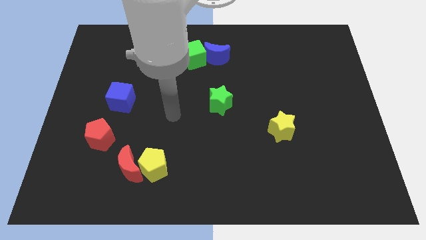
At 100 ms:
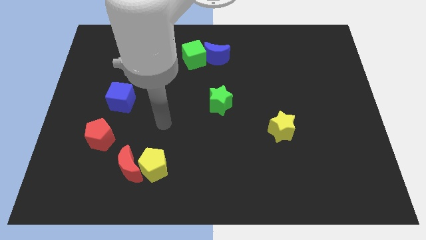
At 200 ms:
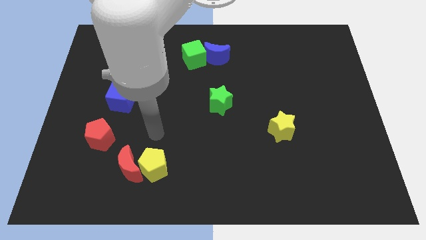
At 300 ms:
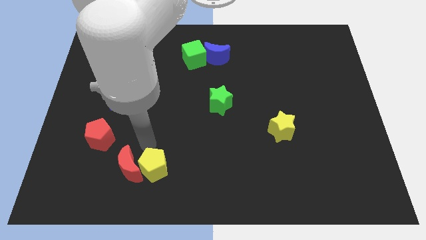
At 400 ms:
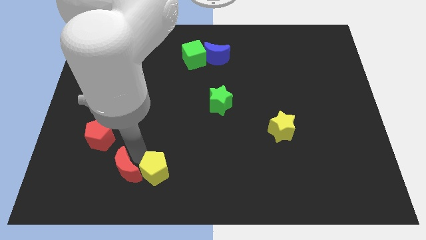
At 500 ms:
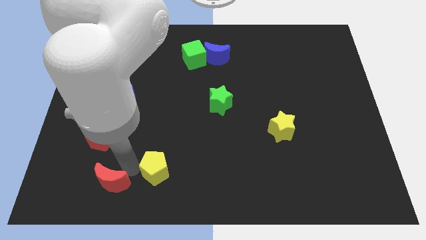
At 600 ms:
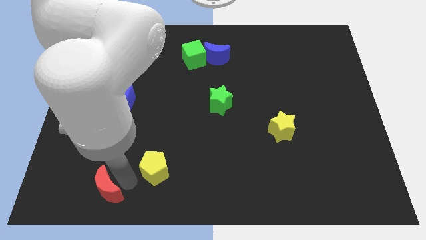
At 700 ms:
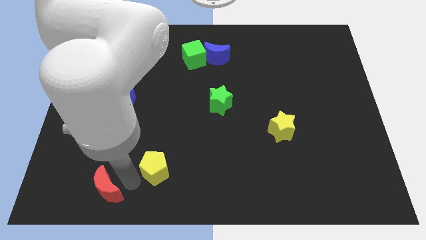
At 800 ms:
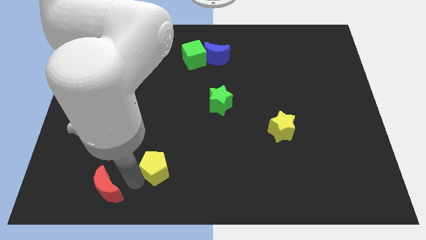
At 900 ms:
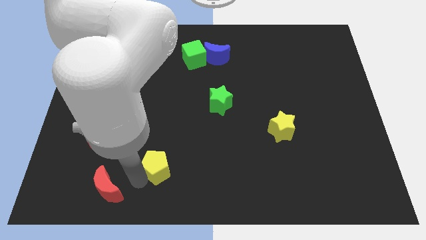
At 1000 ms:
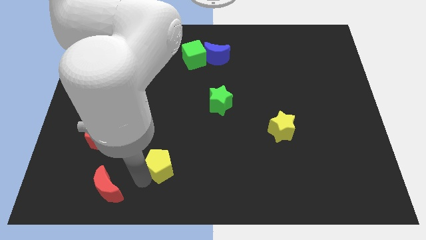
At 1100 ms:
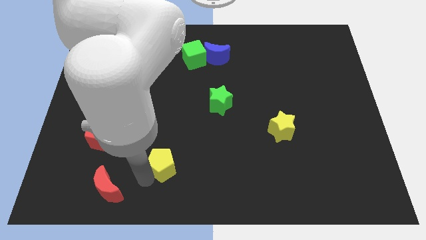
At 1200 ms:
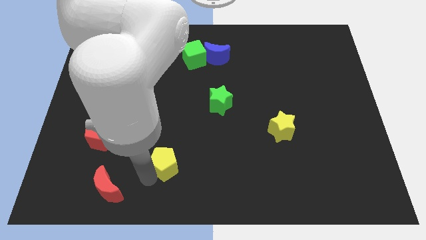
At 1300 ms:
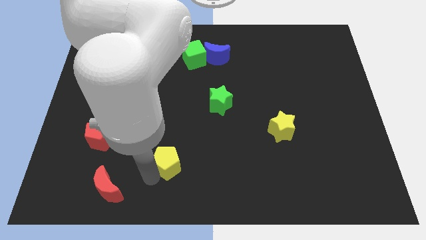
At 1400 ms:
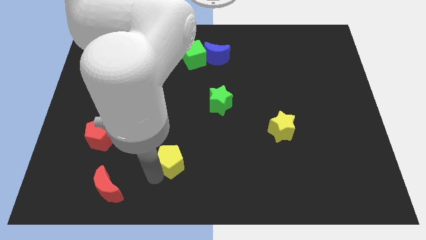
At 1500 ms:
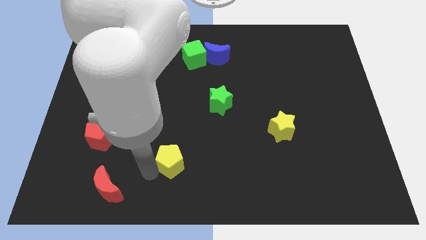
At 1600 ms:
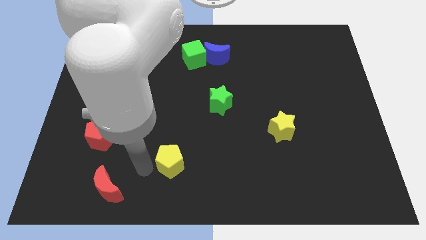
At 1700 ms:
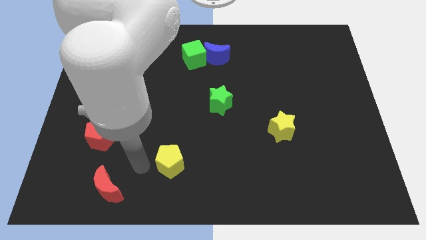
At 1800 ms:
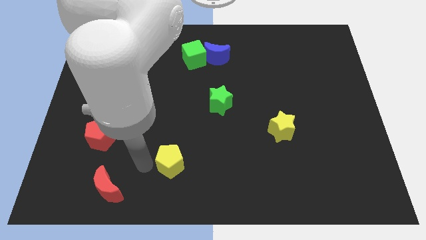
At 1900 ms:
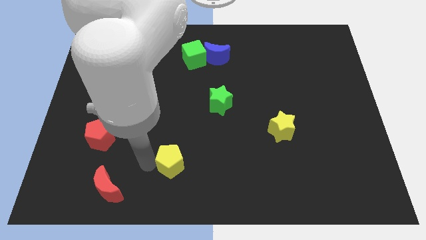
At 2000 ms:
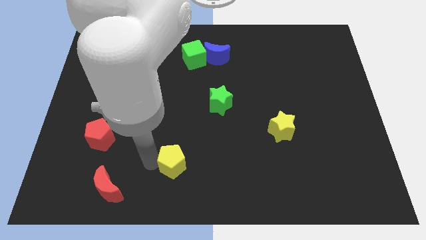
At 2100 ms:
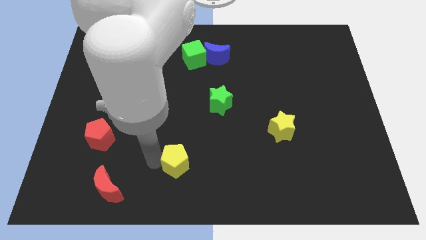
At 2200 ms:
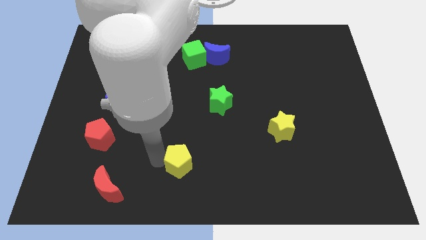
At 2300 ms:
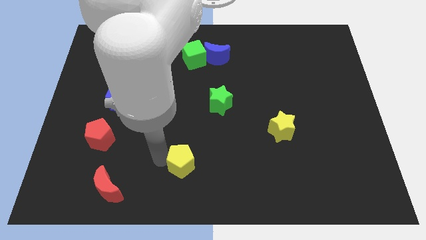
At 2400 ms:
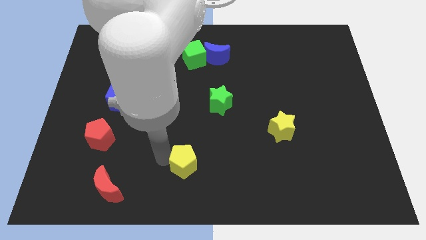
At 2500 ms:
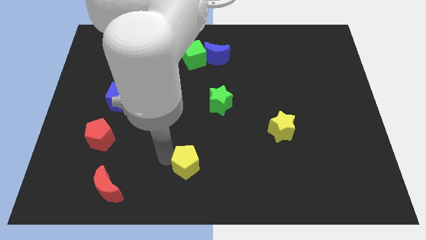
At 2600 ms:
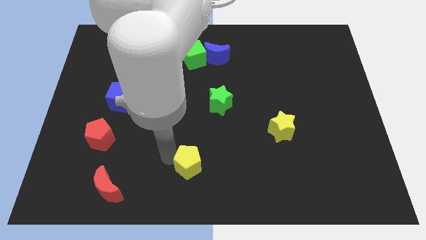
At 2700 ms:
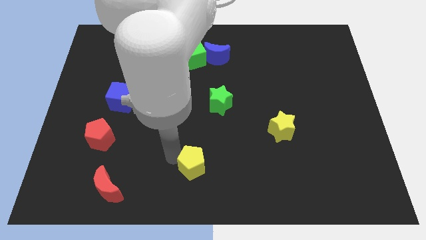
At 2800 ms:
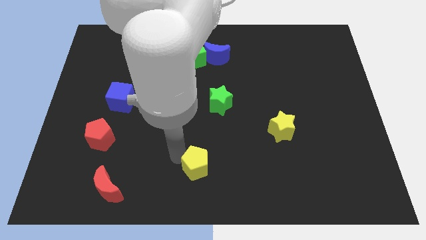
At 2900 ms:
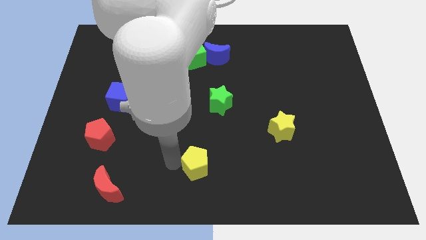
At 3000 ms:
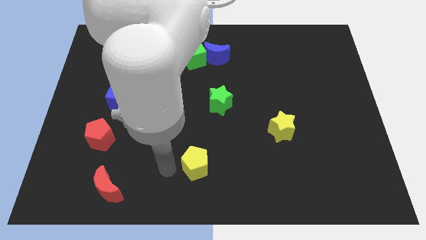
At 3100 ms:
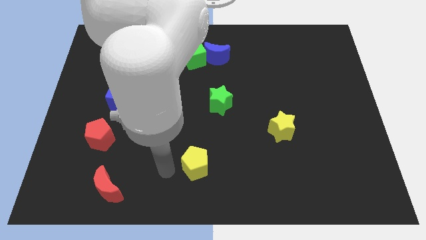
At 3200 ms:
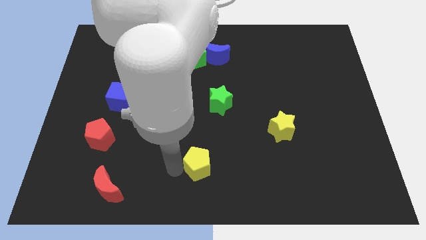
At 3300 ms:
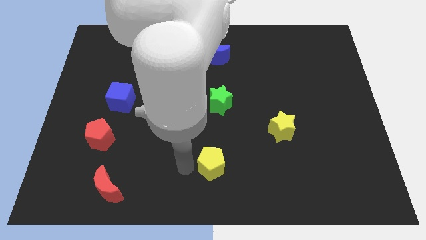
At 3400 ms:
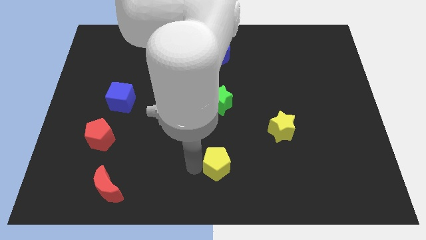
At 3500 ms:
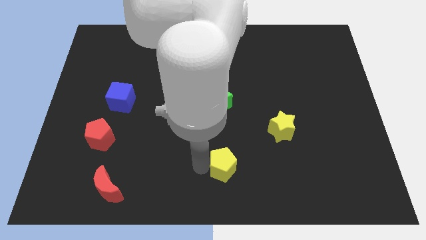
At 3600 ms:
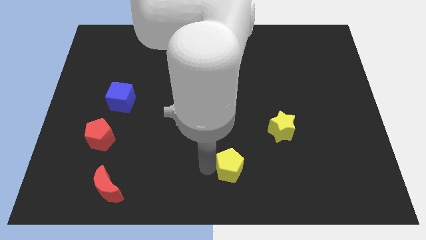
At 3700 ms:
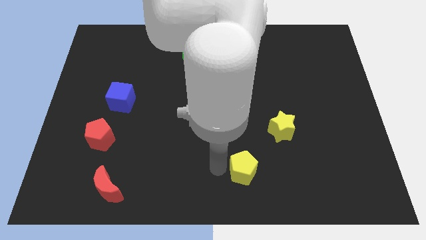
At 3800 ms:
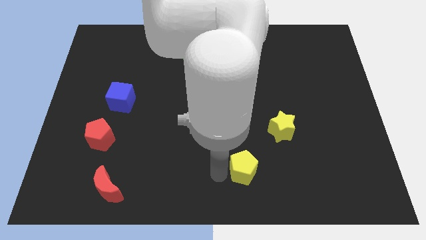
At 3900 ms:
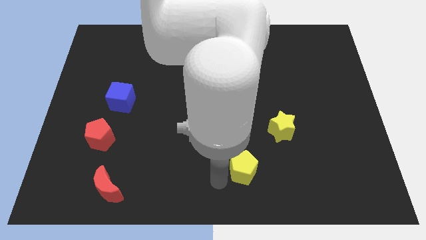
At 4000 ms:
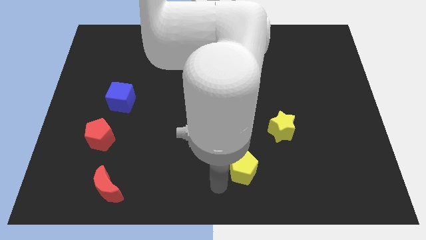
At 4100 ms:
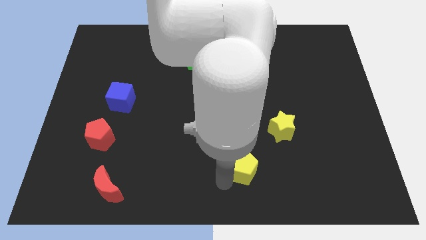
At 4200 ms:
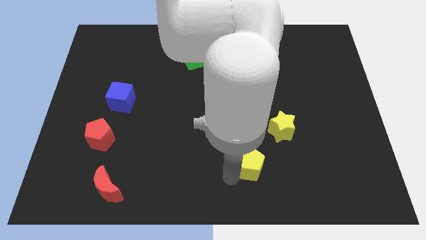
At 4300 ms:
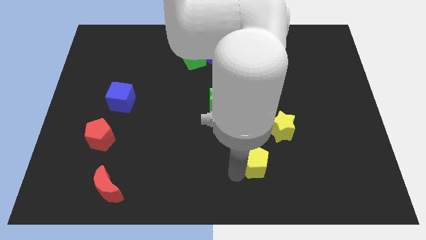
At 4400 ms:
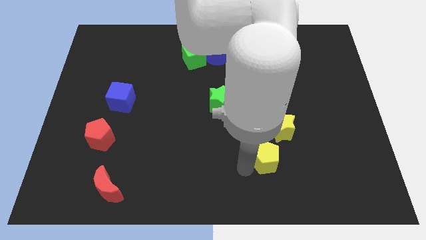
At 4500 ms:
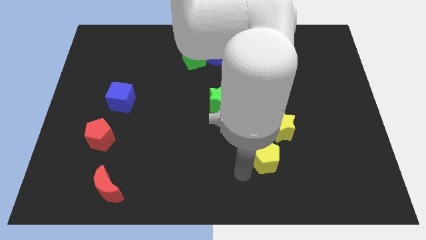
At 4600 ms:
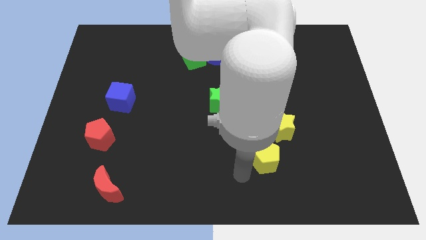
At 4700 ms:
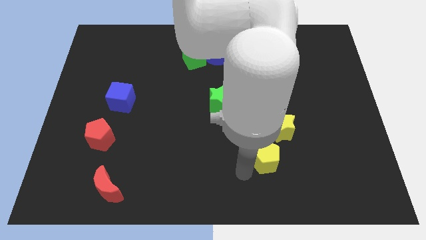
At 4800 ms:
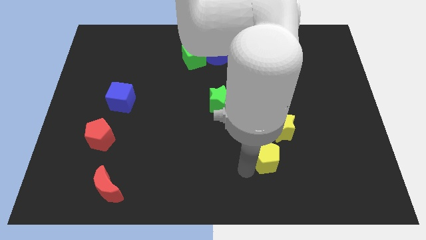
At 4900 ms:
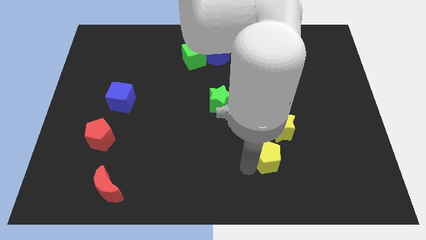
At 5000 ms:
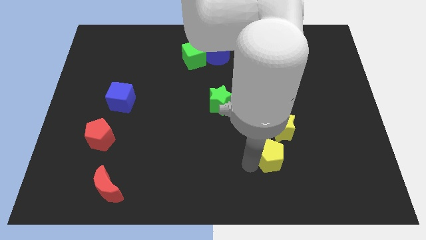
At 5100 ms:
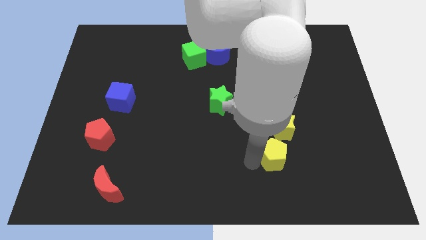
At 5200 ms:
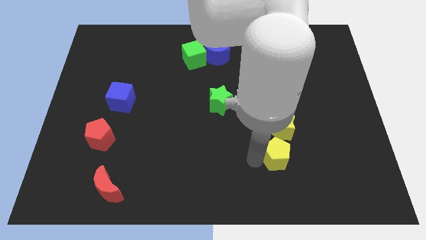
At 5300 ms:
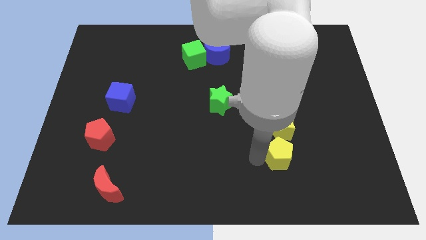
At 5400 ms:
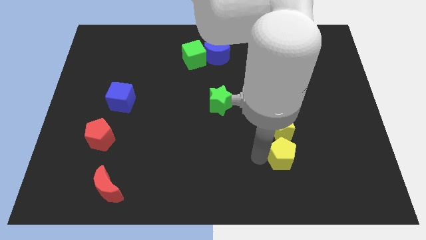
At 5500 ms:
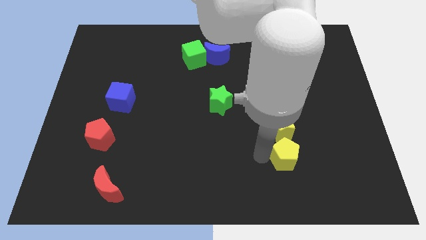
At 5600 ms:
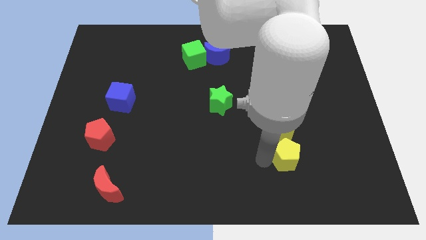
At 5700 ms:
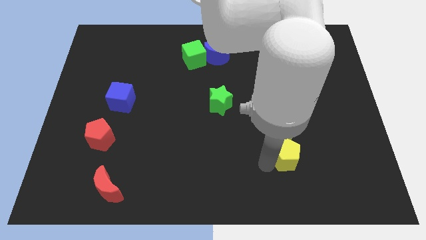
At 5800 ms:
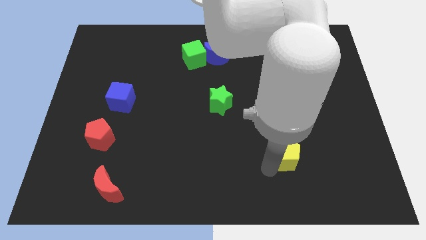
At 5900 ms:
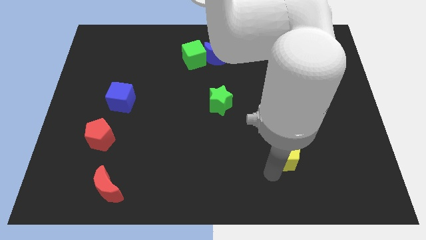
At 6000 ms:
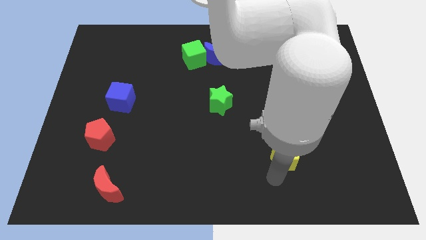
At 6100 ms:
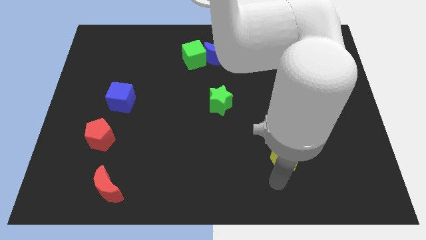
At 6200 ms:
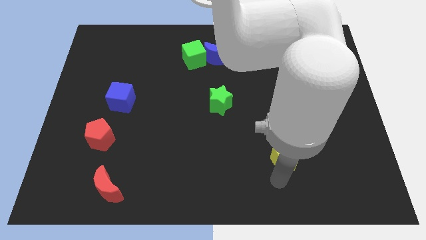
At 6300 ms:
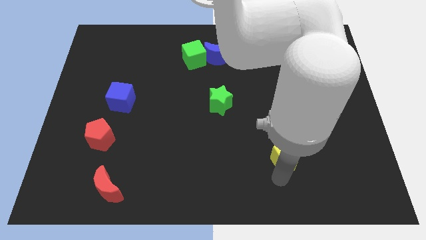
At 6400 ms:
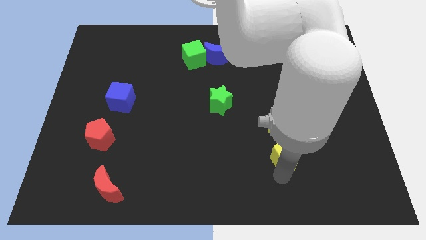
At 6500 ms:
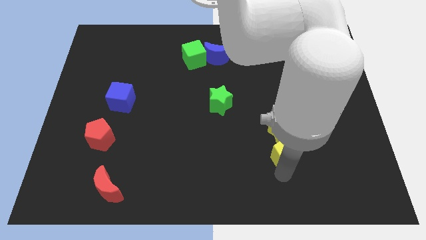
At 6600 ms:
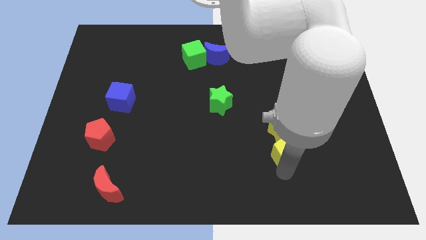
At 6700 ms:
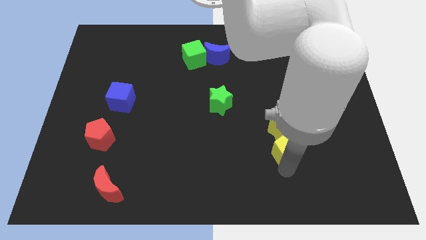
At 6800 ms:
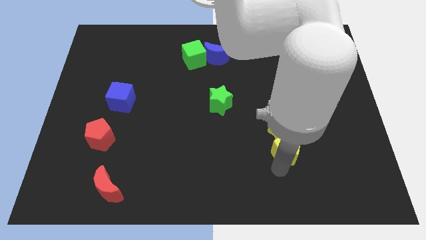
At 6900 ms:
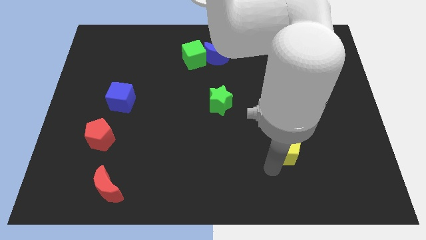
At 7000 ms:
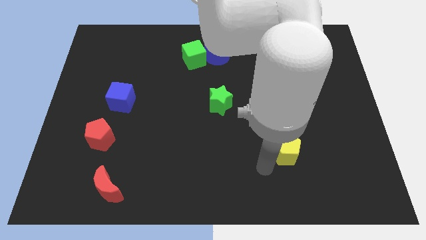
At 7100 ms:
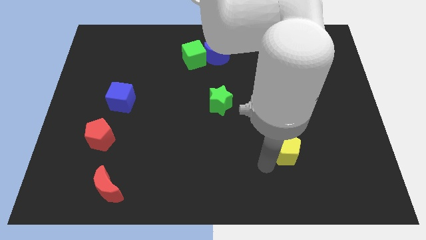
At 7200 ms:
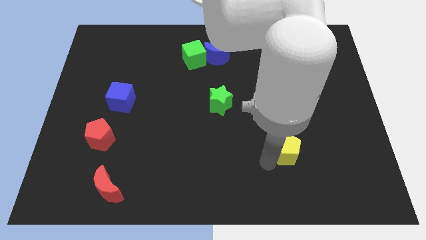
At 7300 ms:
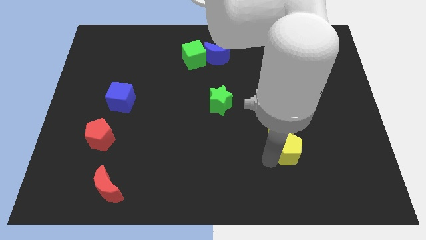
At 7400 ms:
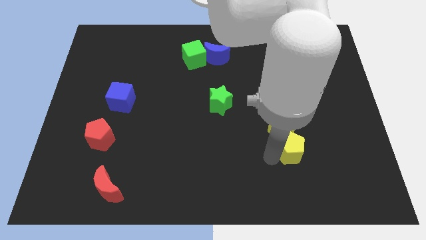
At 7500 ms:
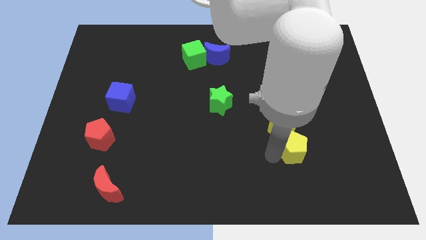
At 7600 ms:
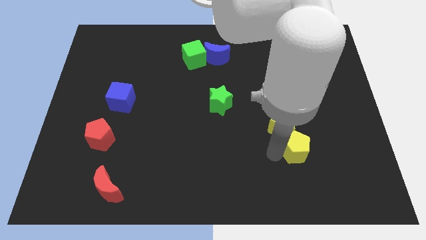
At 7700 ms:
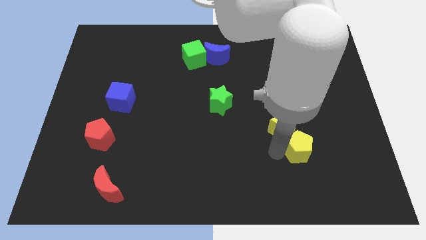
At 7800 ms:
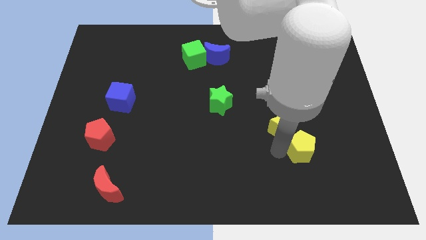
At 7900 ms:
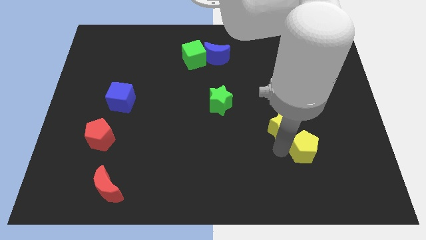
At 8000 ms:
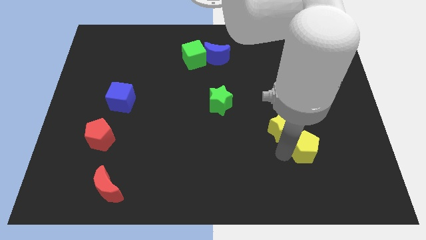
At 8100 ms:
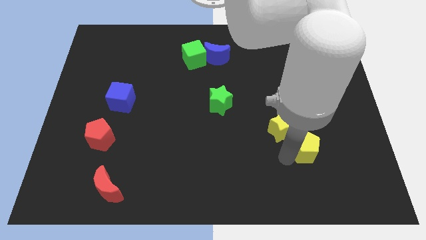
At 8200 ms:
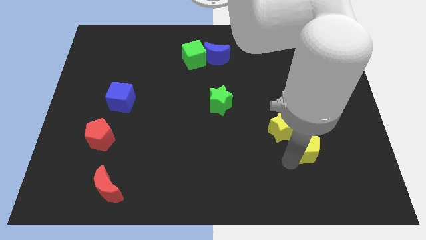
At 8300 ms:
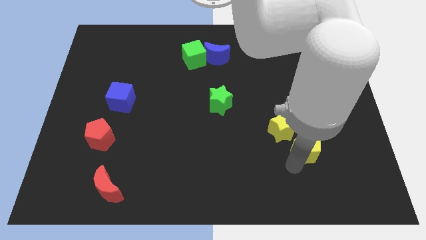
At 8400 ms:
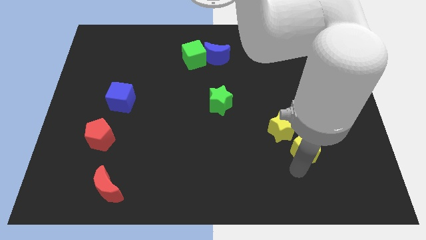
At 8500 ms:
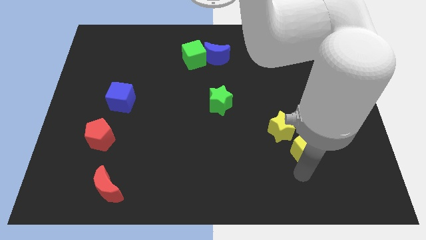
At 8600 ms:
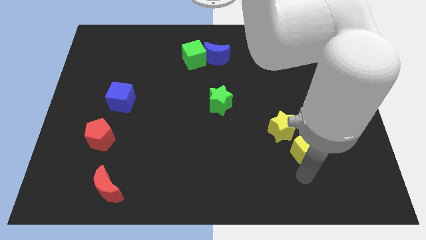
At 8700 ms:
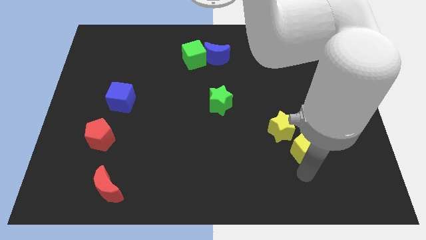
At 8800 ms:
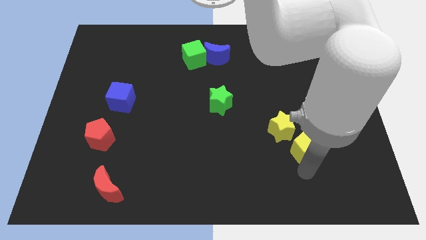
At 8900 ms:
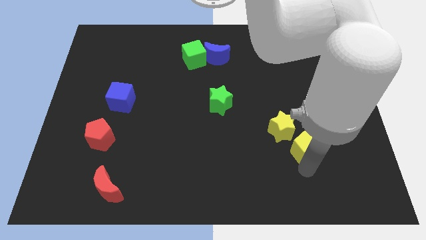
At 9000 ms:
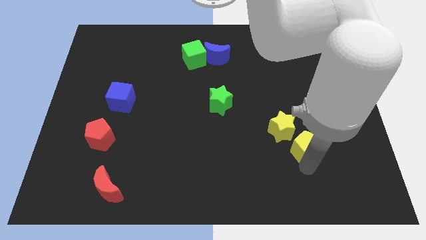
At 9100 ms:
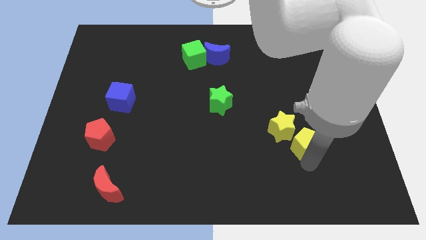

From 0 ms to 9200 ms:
slide the yellow pentagon just right of the yellow star
